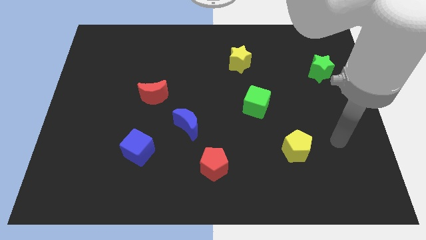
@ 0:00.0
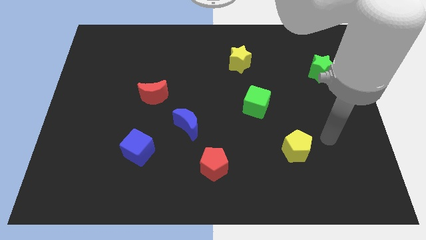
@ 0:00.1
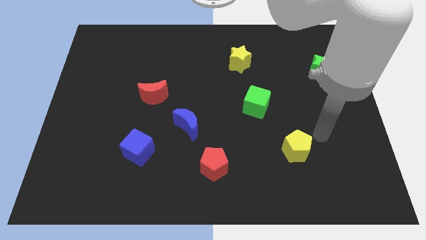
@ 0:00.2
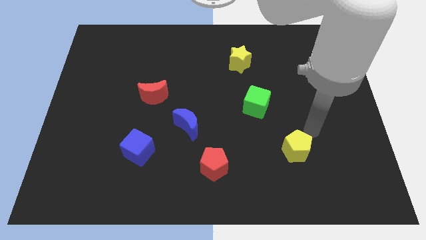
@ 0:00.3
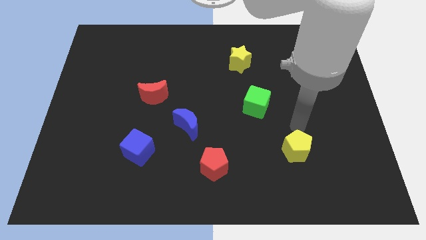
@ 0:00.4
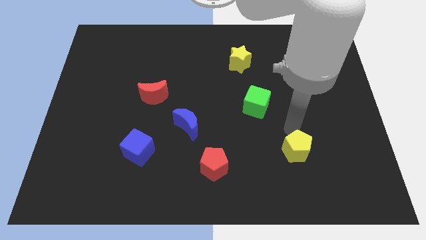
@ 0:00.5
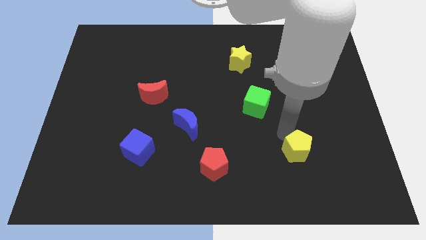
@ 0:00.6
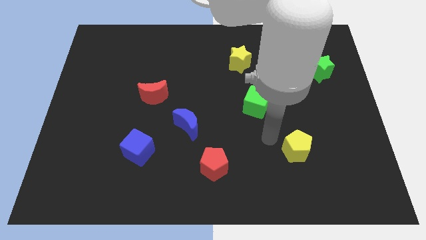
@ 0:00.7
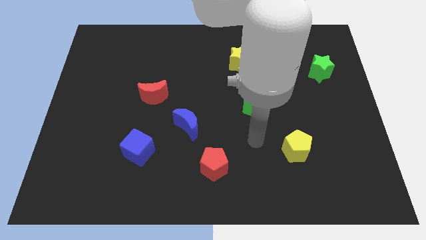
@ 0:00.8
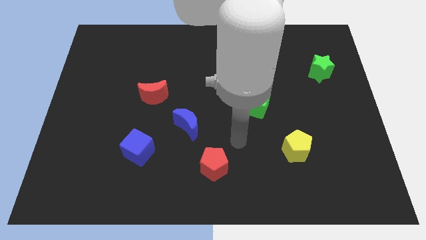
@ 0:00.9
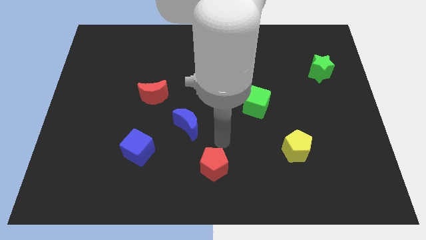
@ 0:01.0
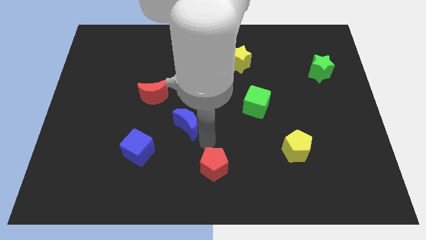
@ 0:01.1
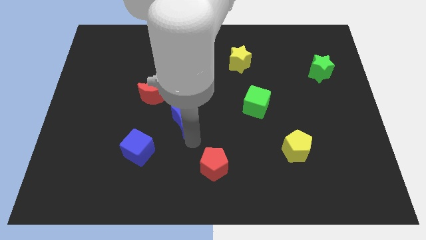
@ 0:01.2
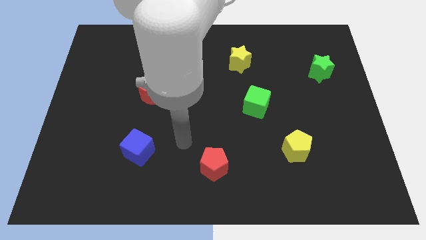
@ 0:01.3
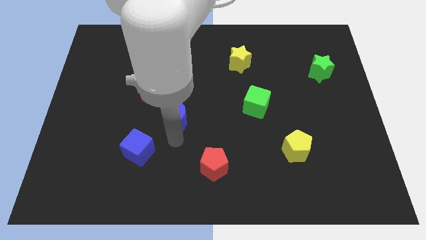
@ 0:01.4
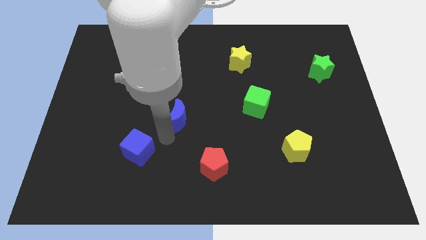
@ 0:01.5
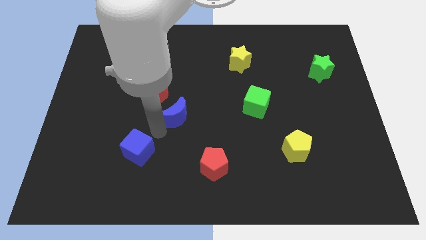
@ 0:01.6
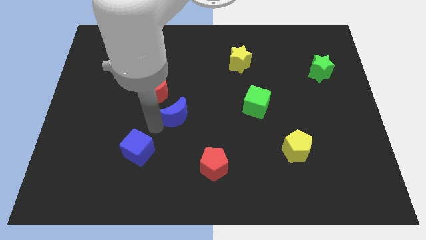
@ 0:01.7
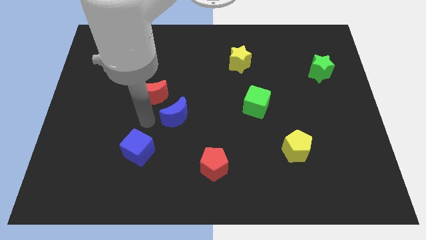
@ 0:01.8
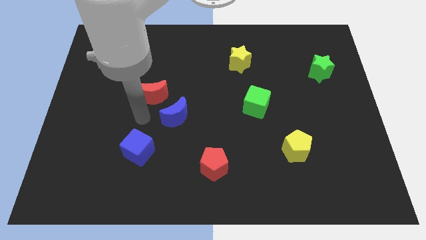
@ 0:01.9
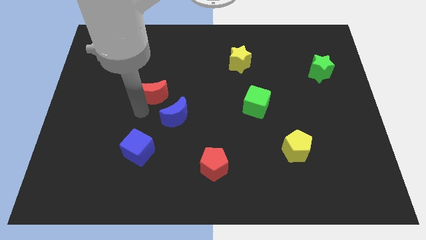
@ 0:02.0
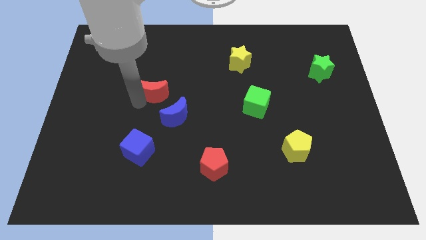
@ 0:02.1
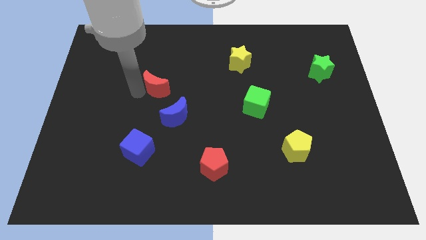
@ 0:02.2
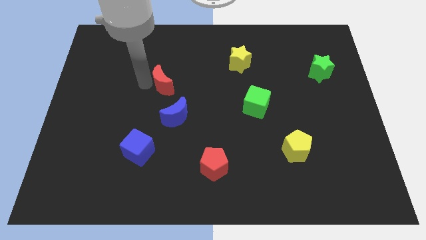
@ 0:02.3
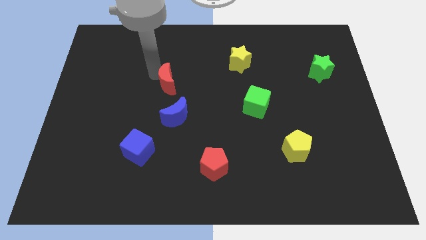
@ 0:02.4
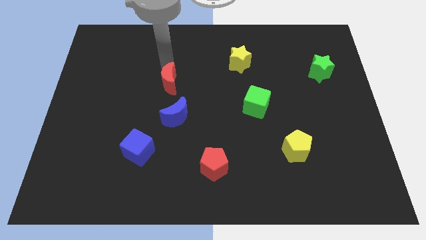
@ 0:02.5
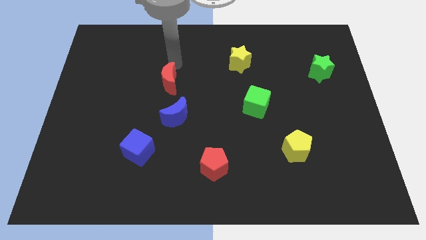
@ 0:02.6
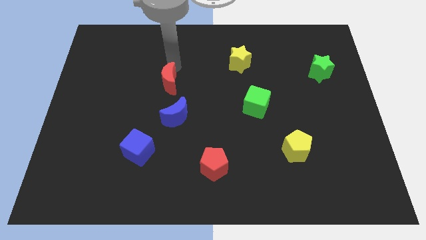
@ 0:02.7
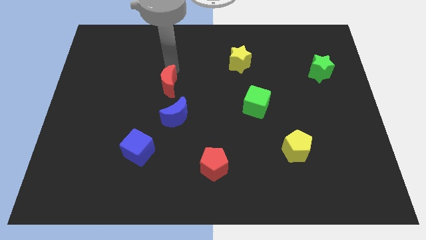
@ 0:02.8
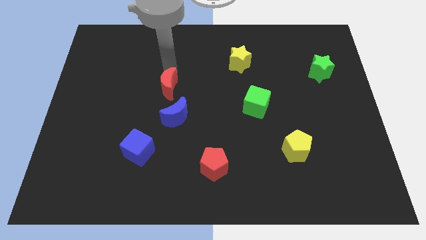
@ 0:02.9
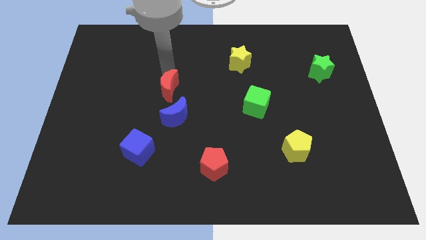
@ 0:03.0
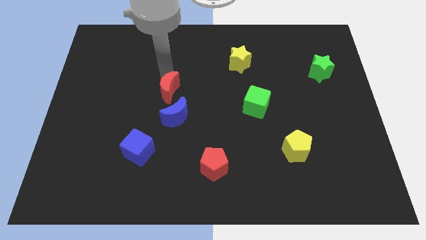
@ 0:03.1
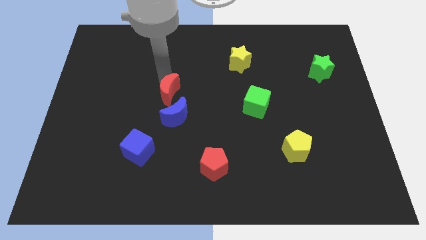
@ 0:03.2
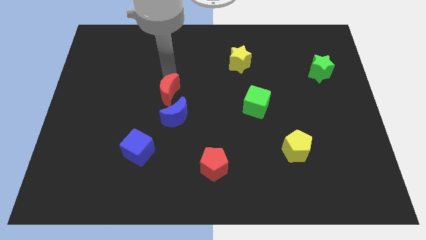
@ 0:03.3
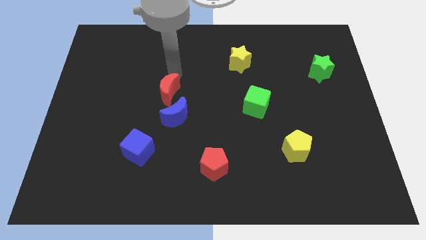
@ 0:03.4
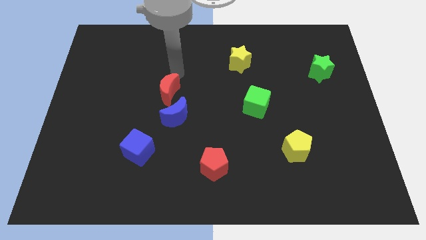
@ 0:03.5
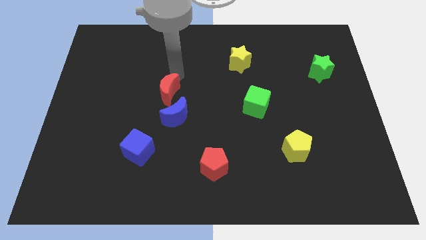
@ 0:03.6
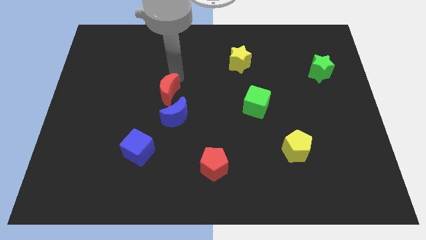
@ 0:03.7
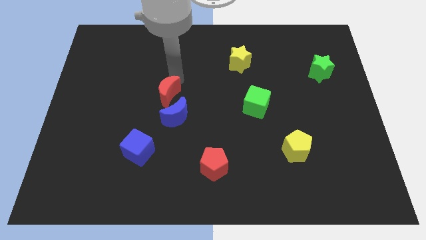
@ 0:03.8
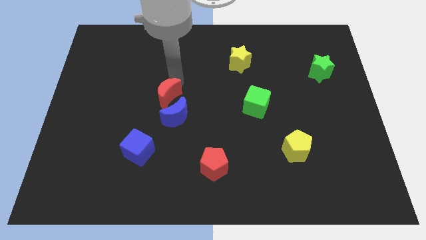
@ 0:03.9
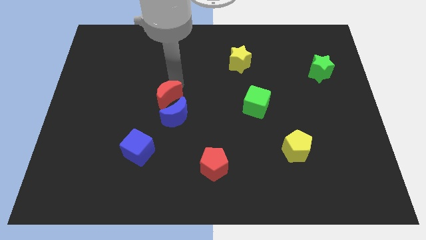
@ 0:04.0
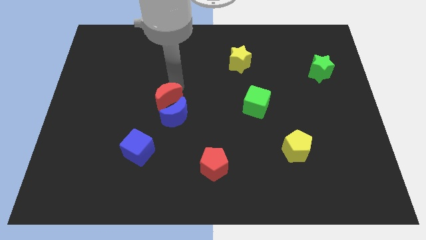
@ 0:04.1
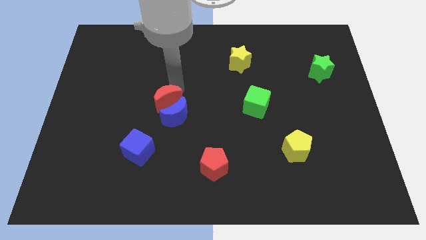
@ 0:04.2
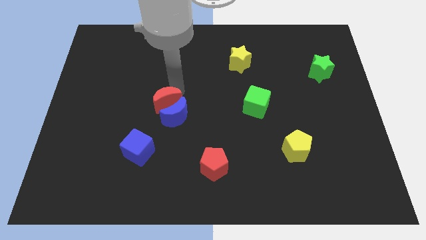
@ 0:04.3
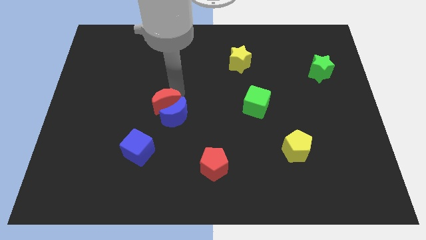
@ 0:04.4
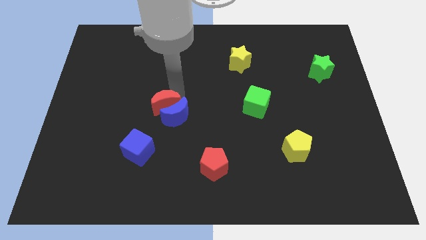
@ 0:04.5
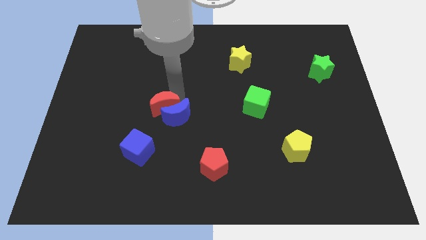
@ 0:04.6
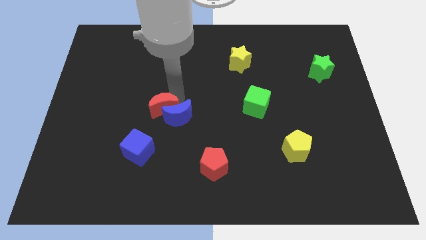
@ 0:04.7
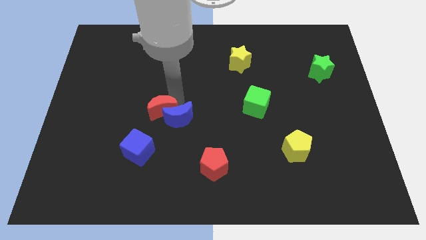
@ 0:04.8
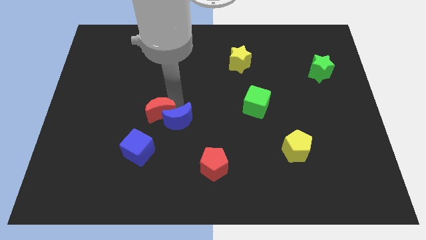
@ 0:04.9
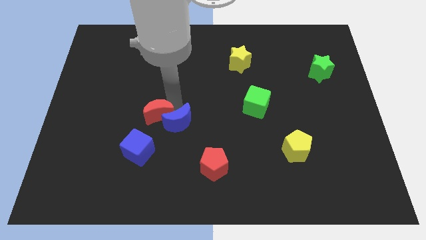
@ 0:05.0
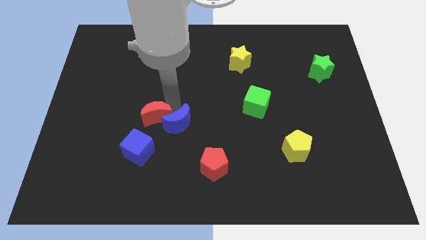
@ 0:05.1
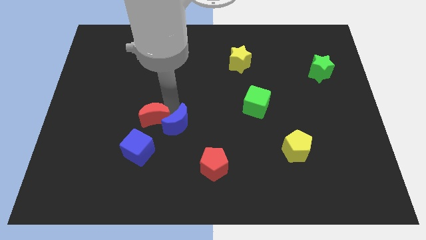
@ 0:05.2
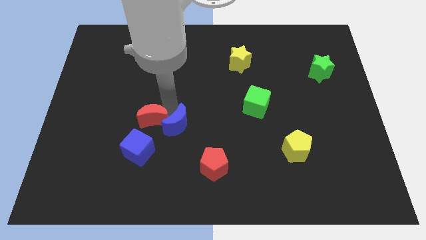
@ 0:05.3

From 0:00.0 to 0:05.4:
push the red moon slightly downwards

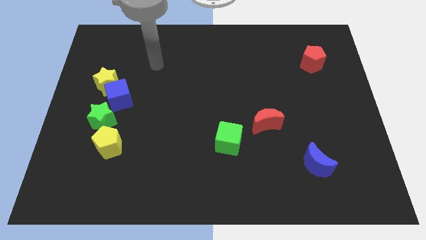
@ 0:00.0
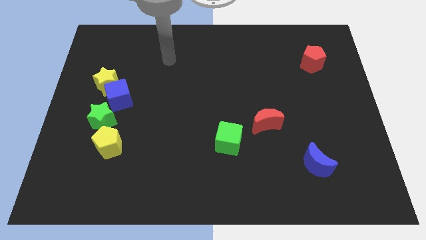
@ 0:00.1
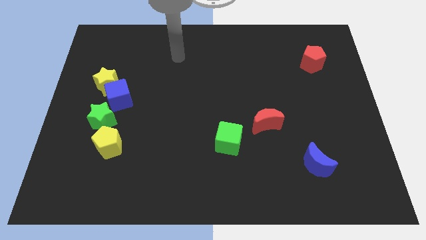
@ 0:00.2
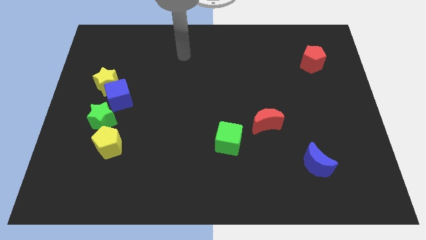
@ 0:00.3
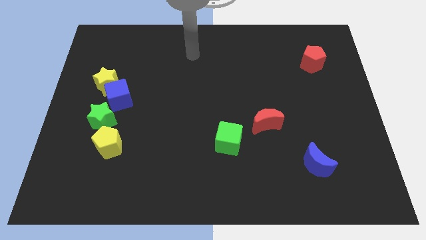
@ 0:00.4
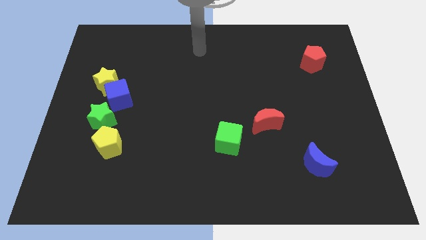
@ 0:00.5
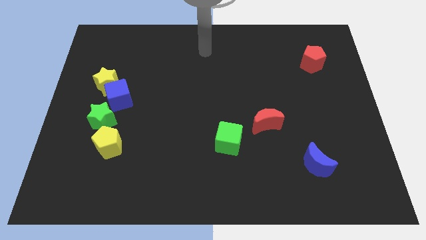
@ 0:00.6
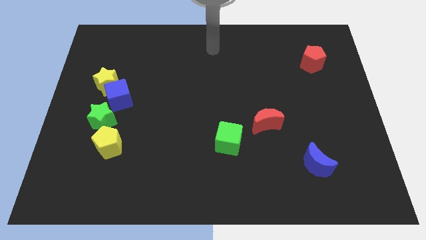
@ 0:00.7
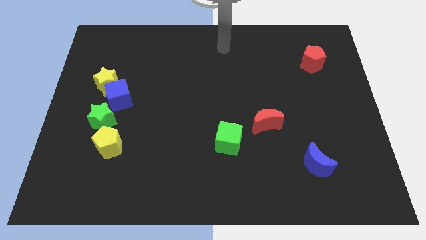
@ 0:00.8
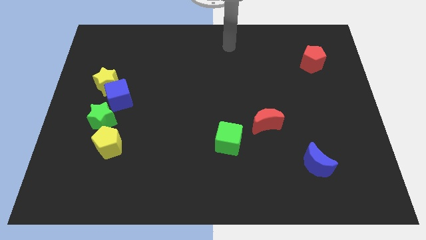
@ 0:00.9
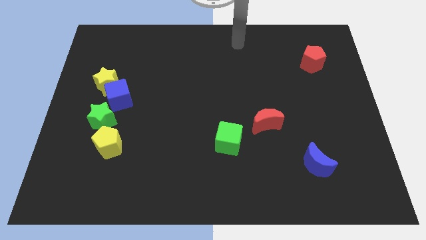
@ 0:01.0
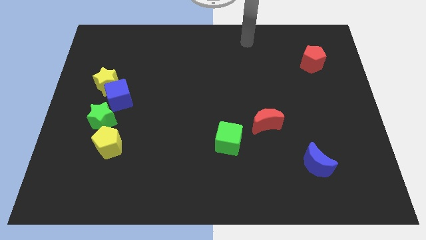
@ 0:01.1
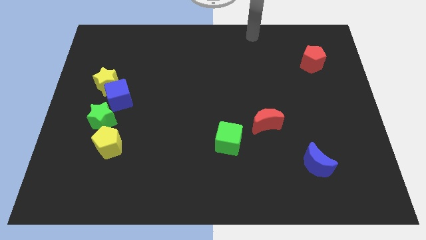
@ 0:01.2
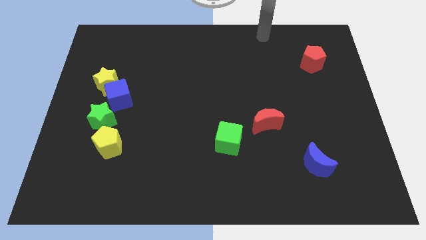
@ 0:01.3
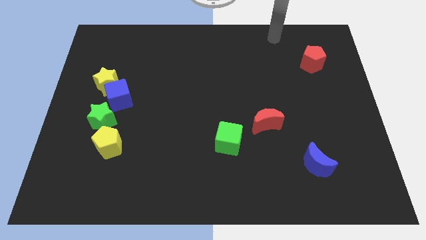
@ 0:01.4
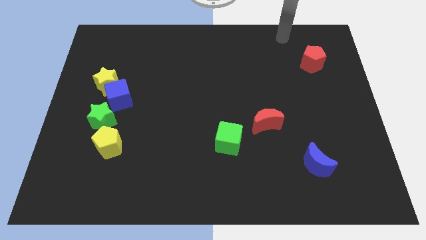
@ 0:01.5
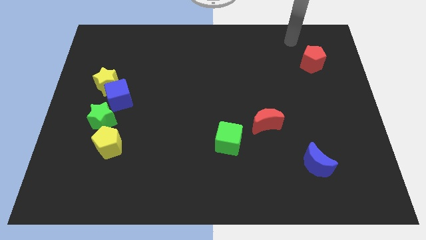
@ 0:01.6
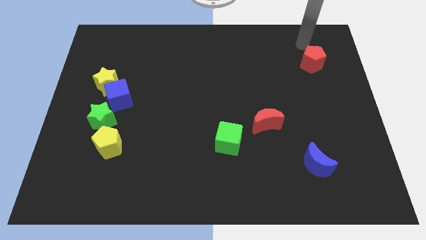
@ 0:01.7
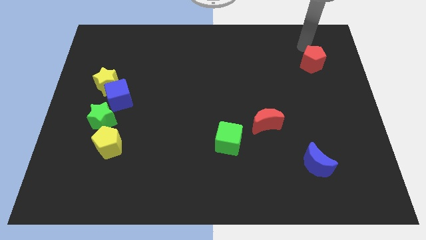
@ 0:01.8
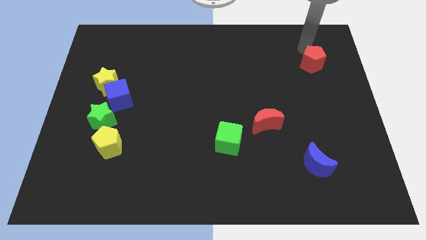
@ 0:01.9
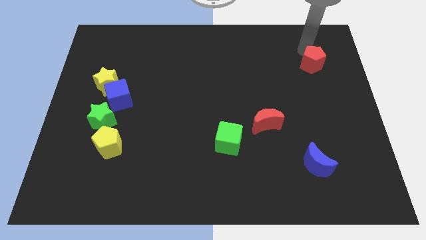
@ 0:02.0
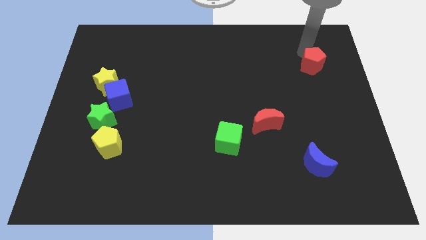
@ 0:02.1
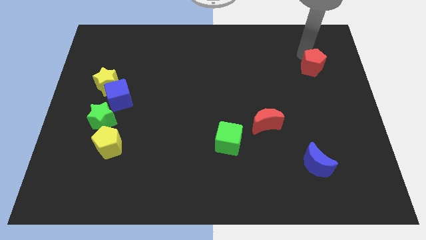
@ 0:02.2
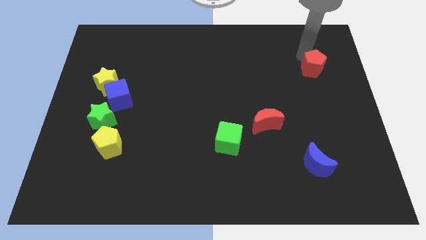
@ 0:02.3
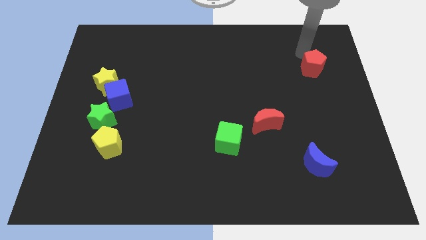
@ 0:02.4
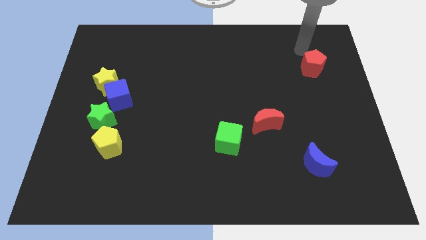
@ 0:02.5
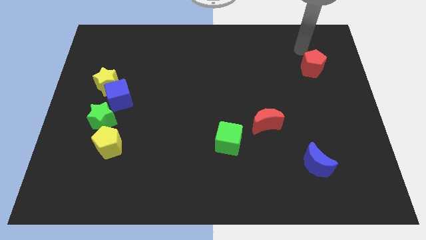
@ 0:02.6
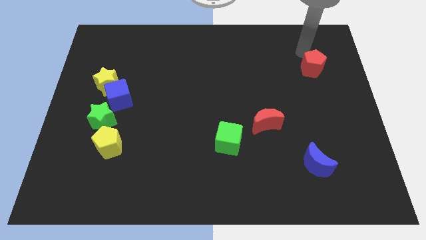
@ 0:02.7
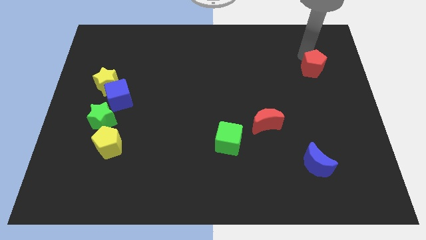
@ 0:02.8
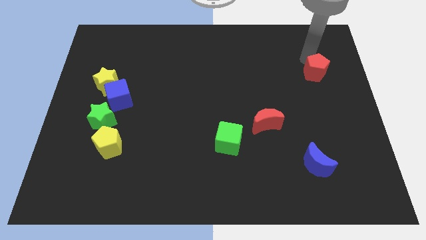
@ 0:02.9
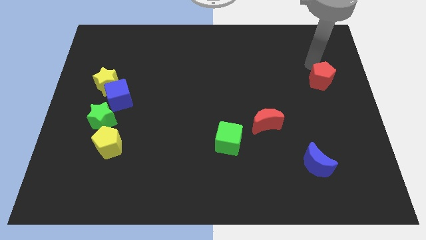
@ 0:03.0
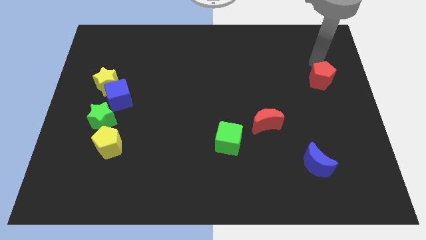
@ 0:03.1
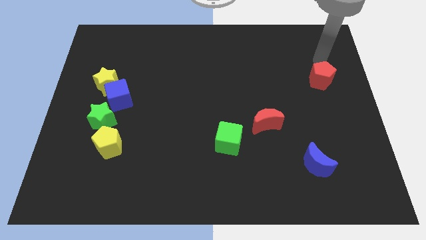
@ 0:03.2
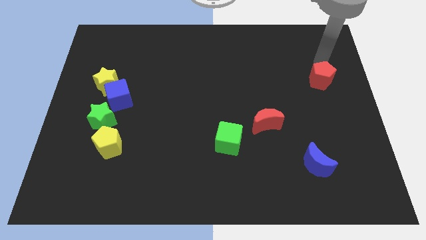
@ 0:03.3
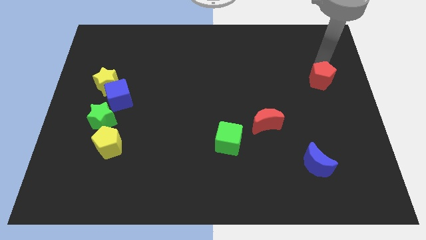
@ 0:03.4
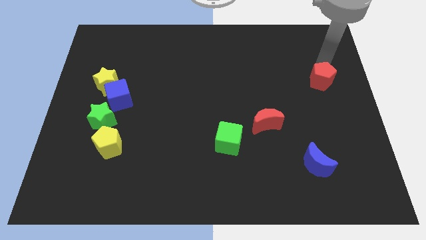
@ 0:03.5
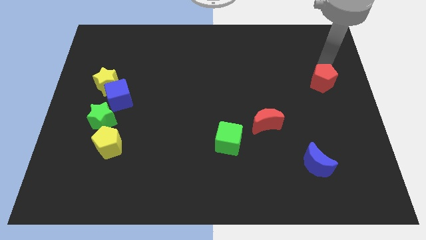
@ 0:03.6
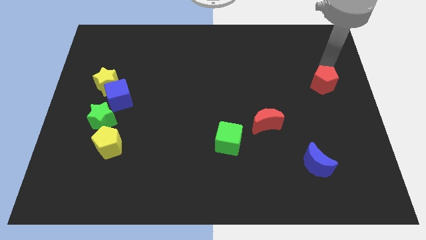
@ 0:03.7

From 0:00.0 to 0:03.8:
move the red pentagon down somewhat
